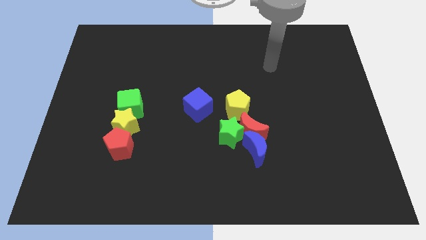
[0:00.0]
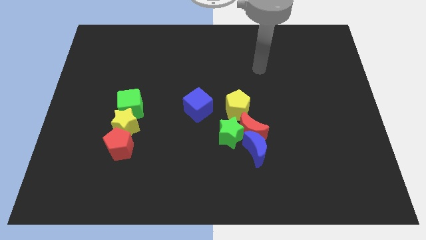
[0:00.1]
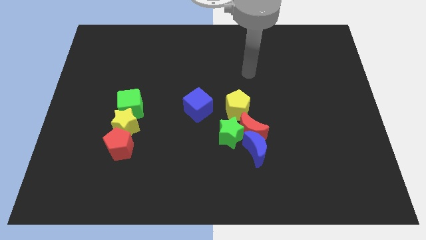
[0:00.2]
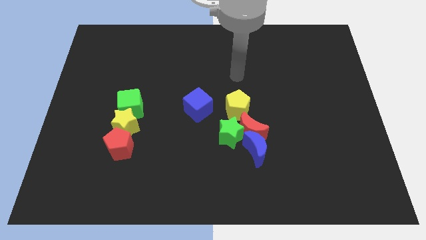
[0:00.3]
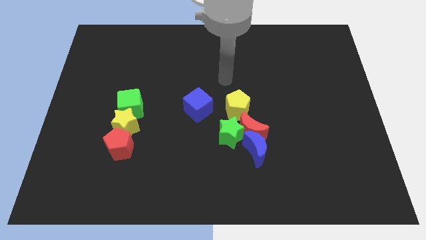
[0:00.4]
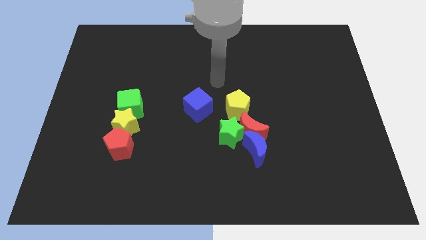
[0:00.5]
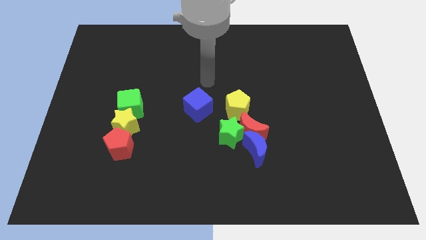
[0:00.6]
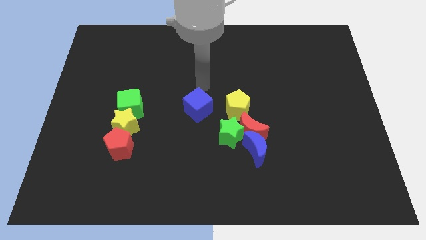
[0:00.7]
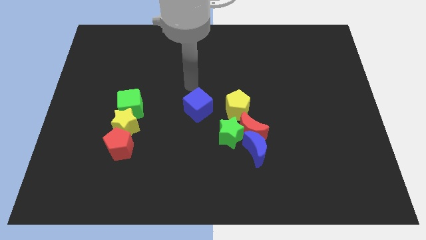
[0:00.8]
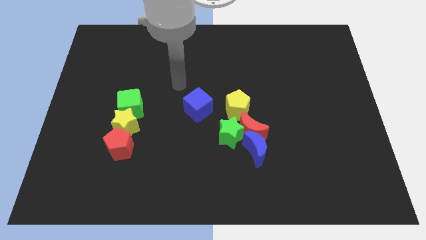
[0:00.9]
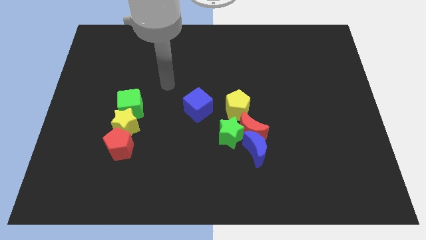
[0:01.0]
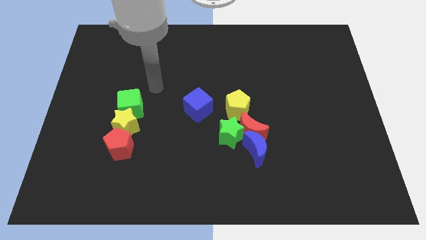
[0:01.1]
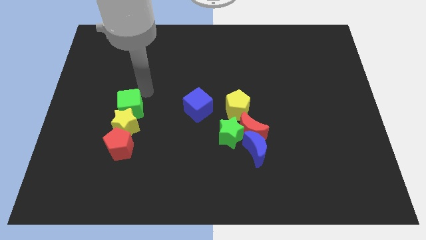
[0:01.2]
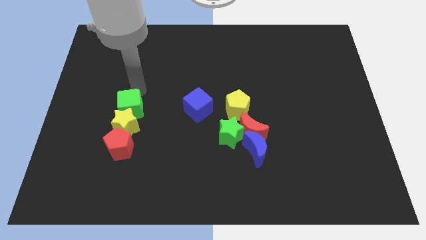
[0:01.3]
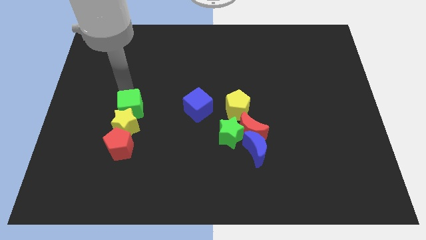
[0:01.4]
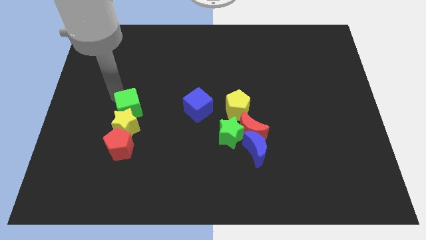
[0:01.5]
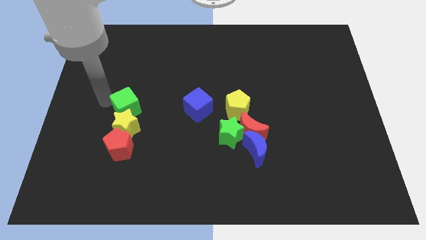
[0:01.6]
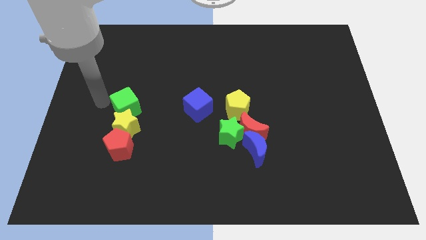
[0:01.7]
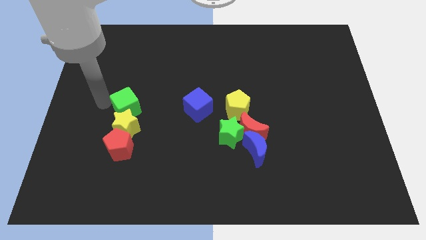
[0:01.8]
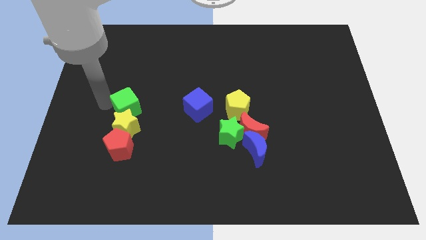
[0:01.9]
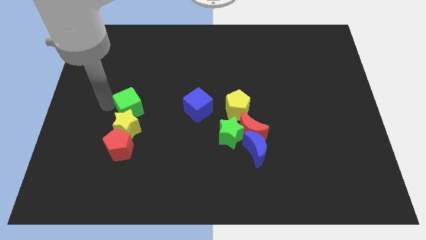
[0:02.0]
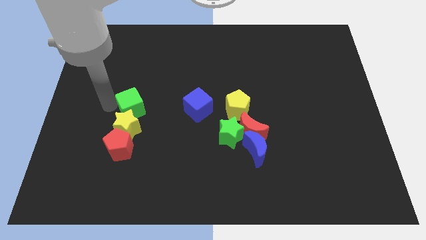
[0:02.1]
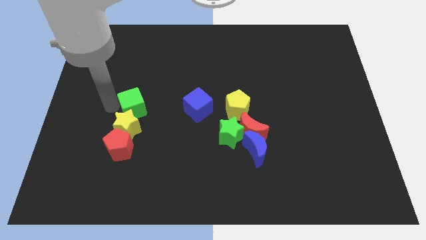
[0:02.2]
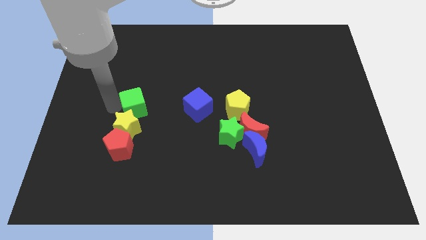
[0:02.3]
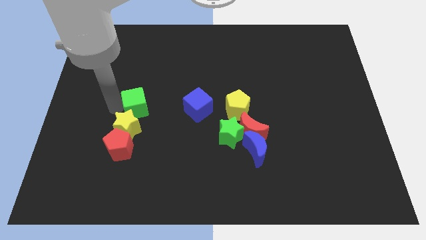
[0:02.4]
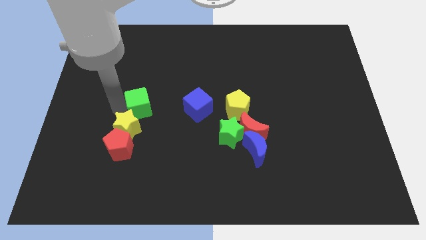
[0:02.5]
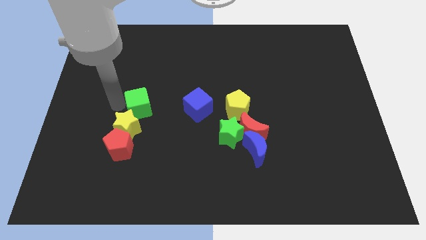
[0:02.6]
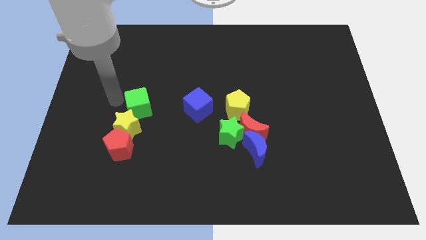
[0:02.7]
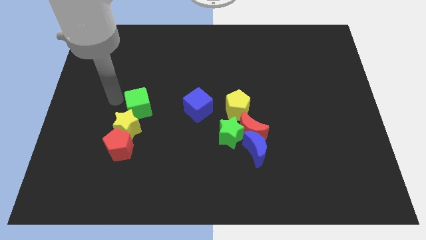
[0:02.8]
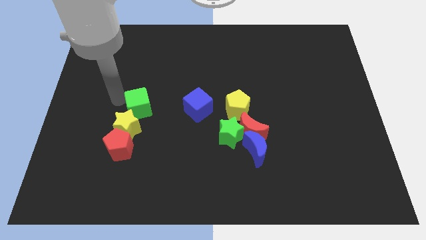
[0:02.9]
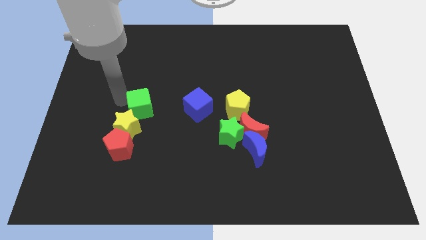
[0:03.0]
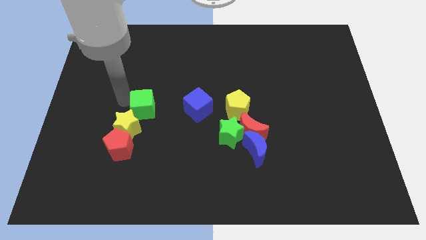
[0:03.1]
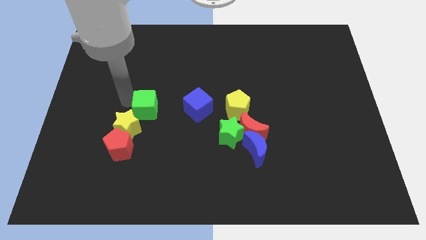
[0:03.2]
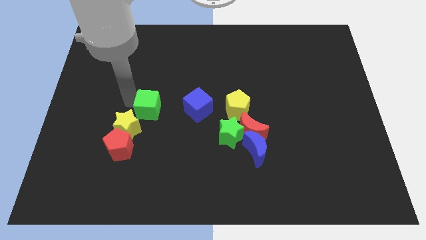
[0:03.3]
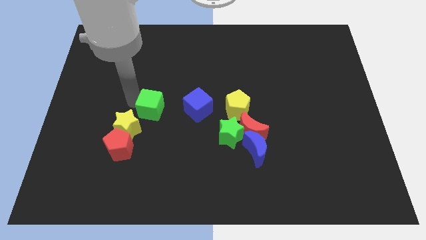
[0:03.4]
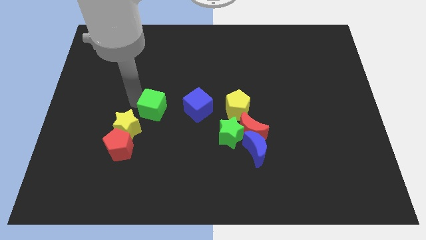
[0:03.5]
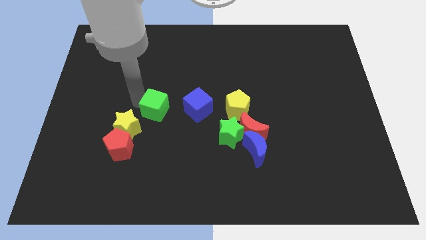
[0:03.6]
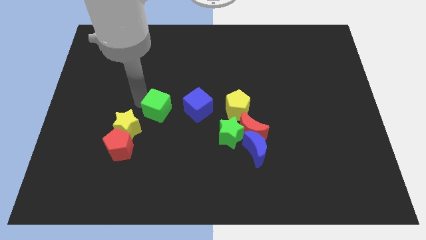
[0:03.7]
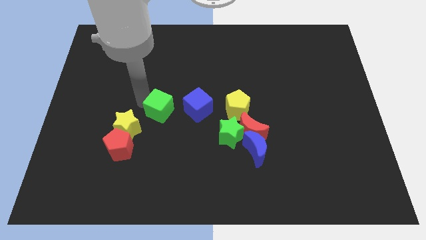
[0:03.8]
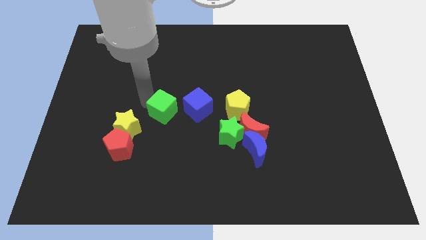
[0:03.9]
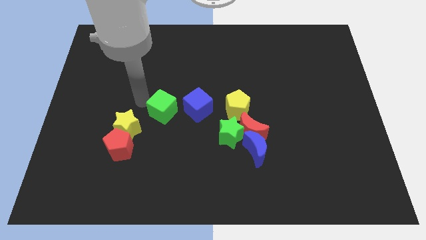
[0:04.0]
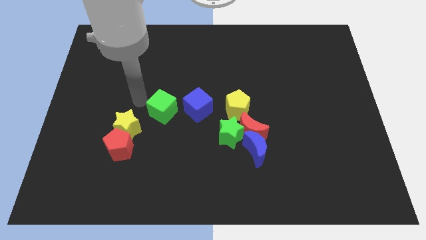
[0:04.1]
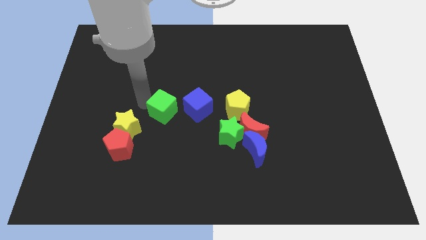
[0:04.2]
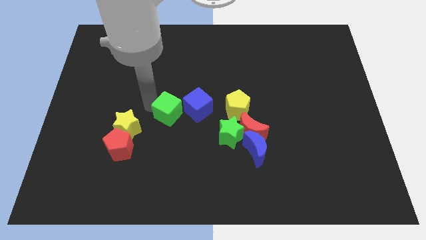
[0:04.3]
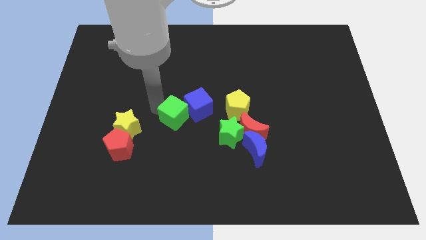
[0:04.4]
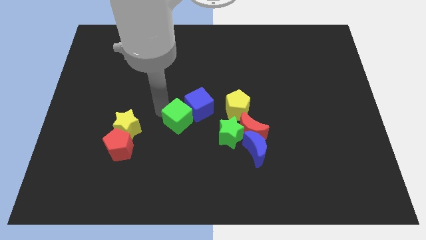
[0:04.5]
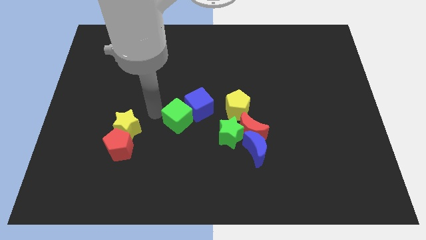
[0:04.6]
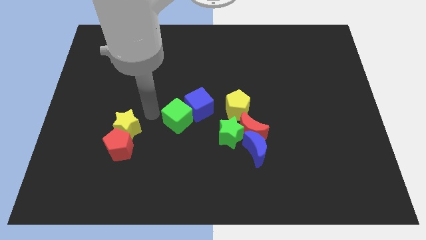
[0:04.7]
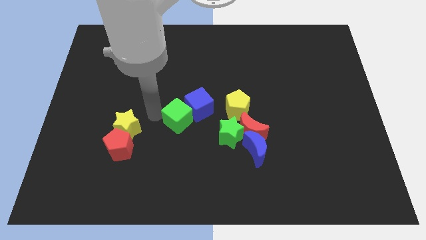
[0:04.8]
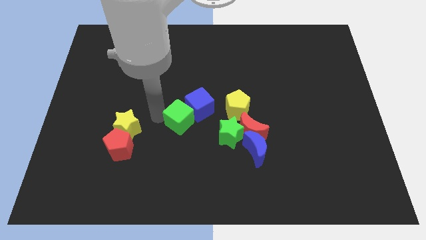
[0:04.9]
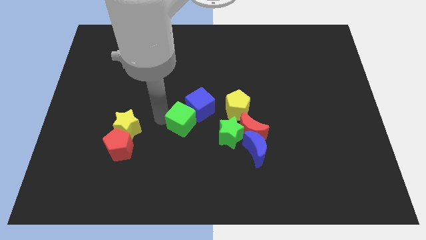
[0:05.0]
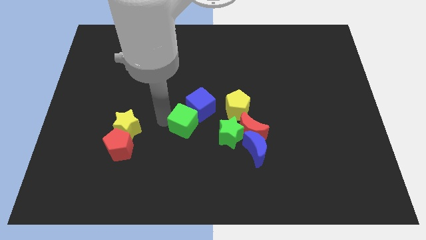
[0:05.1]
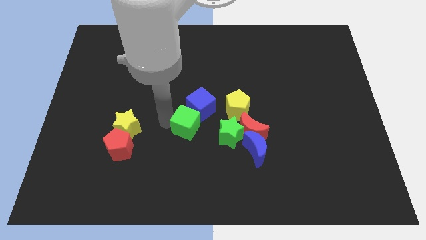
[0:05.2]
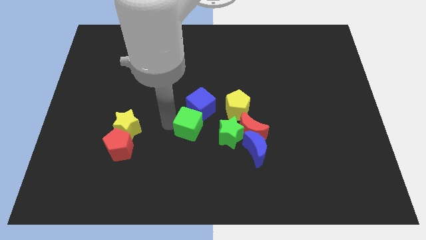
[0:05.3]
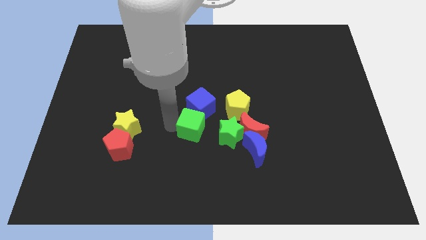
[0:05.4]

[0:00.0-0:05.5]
move the green cube to the bottom left side of the yellow pentagon

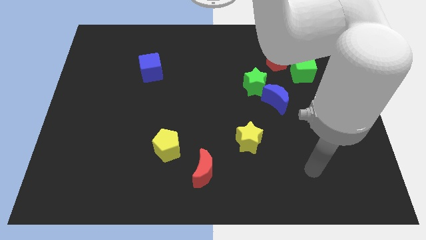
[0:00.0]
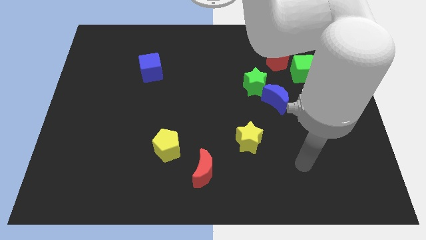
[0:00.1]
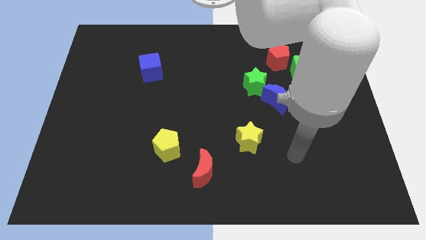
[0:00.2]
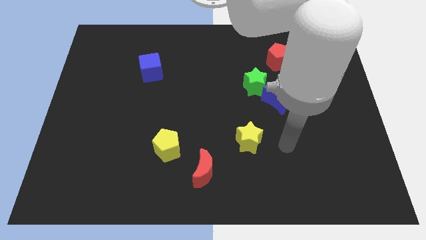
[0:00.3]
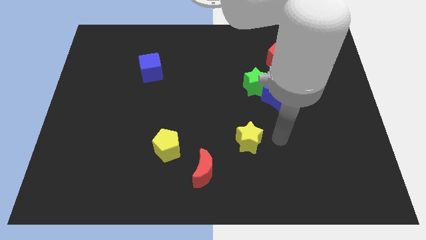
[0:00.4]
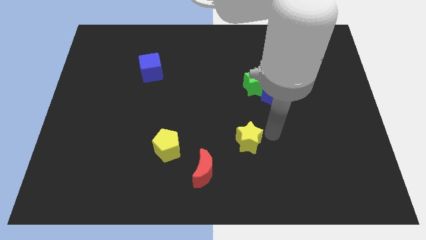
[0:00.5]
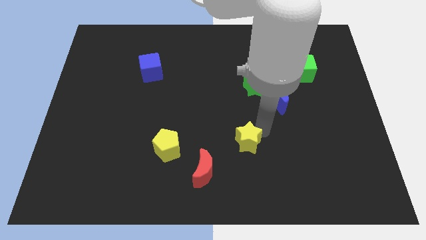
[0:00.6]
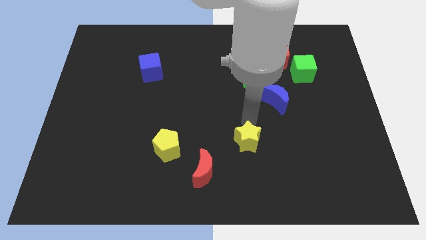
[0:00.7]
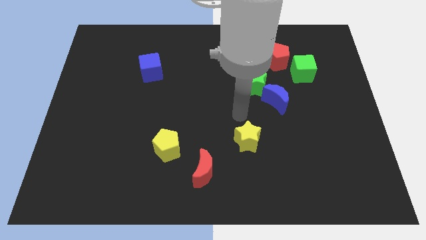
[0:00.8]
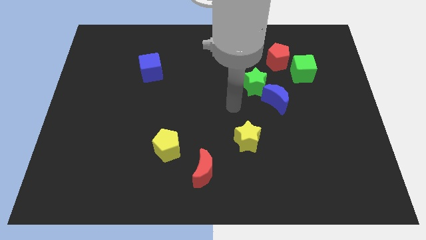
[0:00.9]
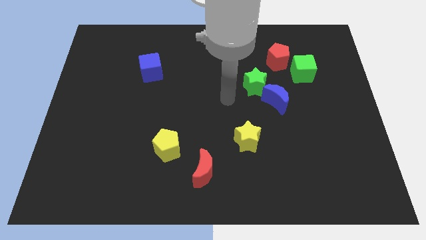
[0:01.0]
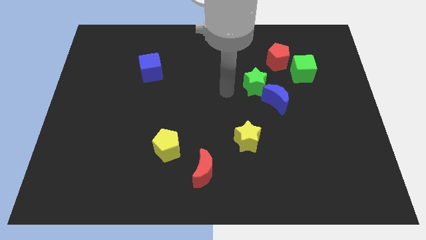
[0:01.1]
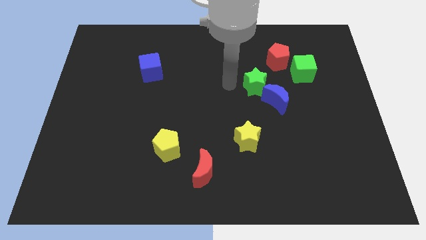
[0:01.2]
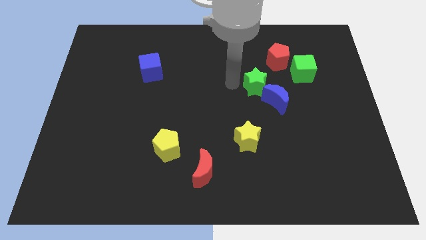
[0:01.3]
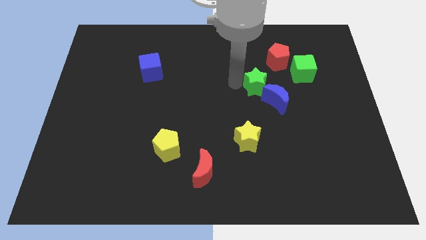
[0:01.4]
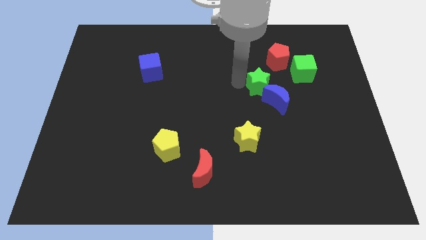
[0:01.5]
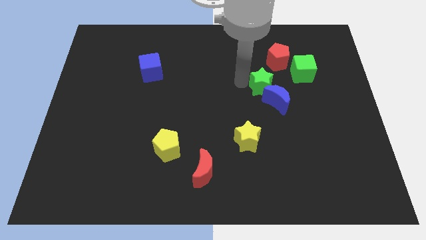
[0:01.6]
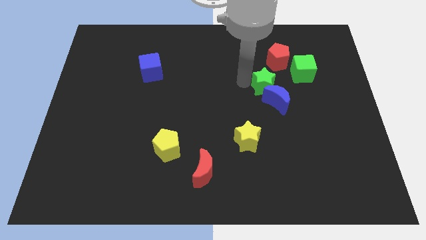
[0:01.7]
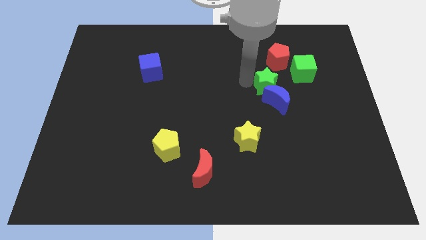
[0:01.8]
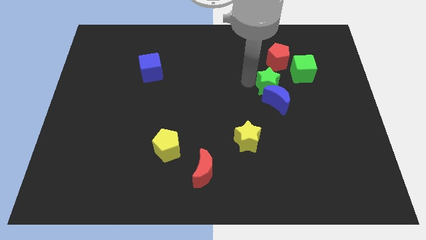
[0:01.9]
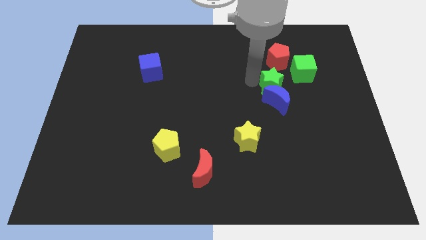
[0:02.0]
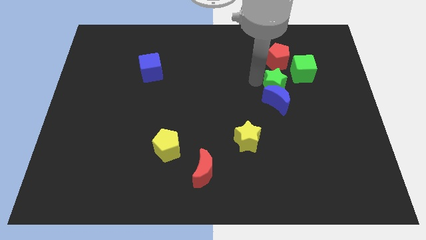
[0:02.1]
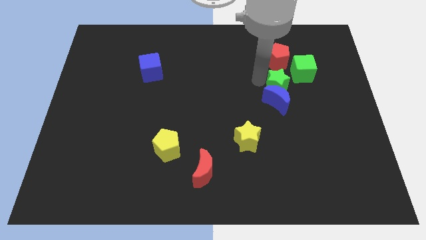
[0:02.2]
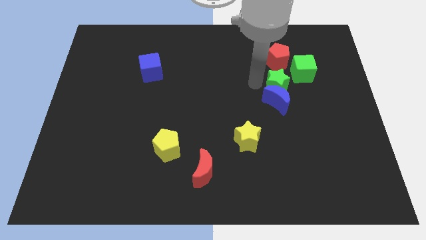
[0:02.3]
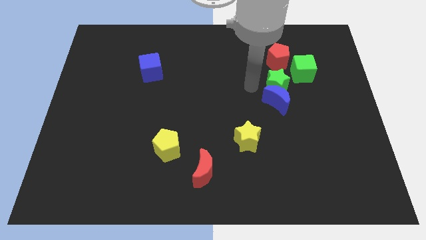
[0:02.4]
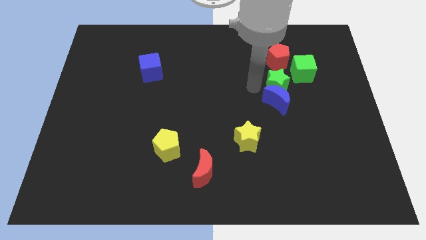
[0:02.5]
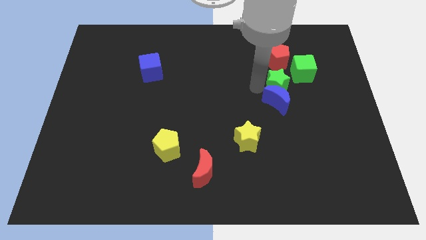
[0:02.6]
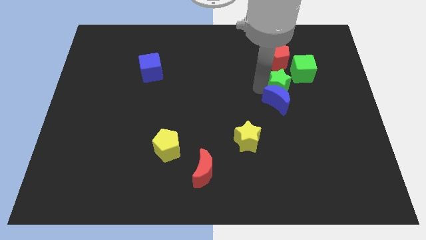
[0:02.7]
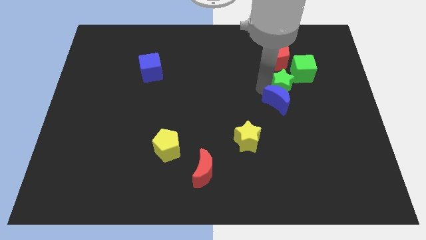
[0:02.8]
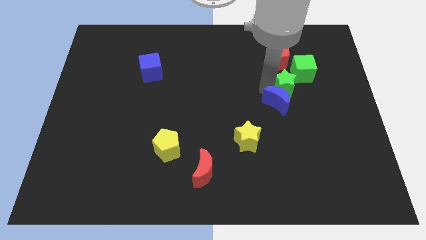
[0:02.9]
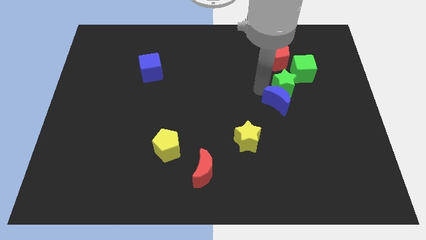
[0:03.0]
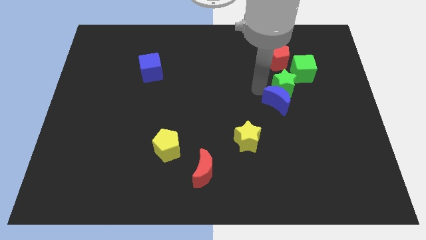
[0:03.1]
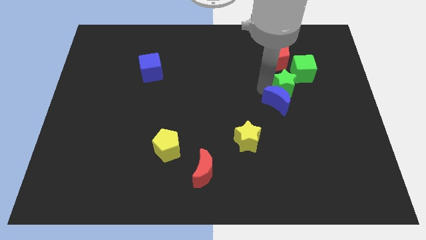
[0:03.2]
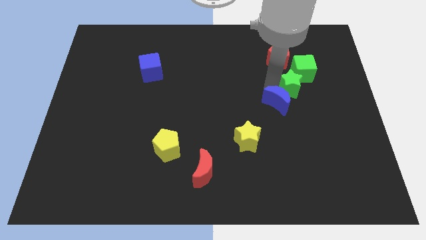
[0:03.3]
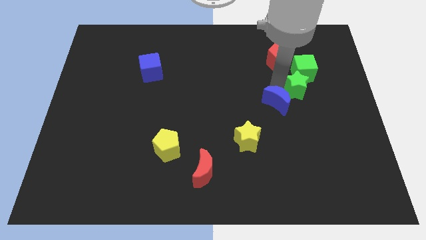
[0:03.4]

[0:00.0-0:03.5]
slide the green star to the bottom right of the red pentagon
